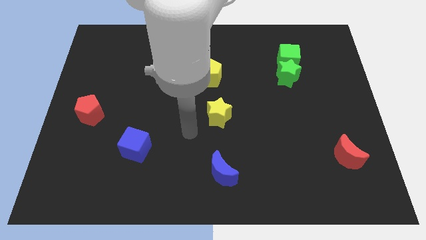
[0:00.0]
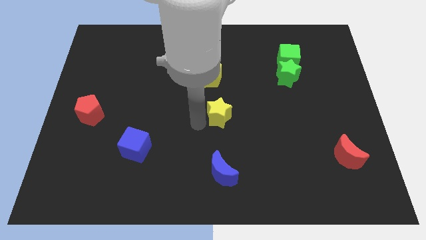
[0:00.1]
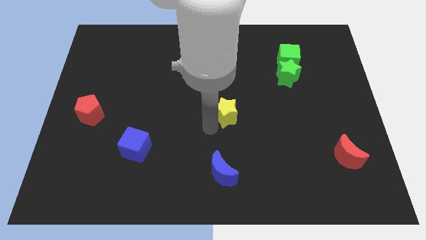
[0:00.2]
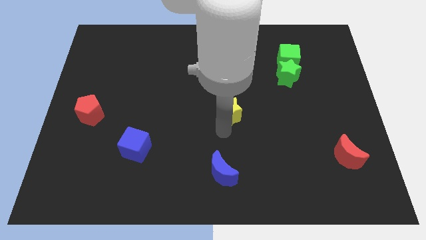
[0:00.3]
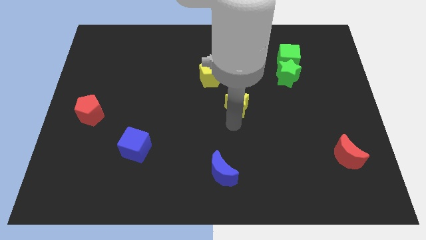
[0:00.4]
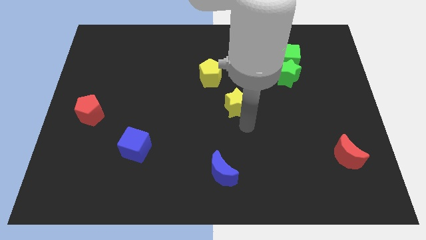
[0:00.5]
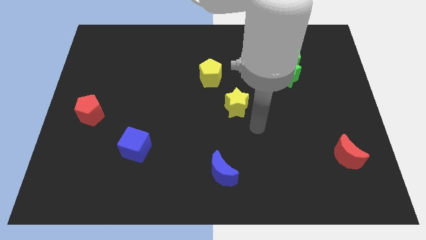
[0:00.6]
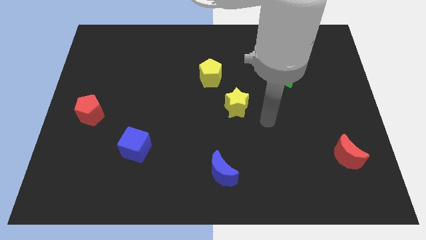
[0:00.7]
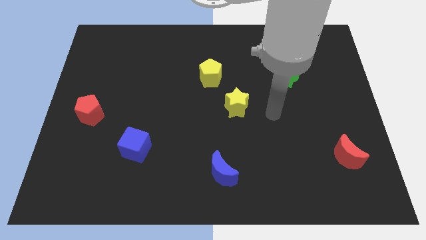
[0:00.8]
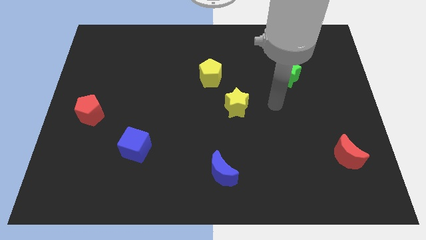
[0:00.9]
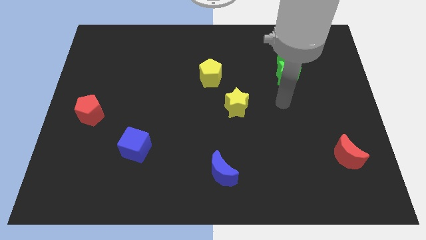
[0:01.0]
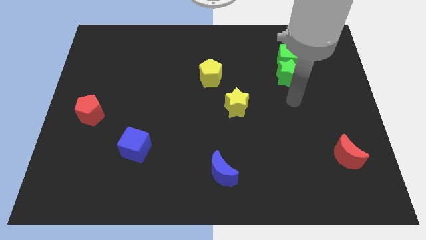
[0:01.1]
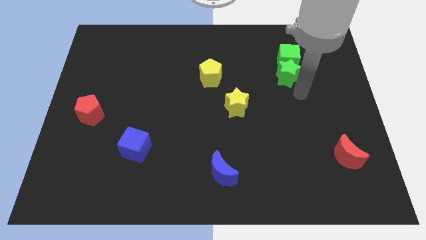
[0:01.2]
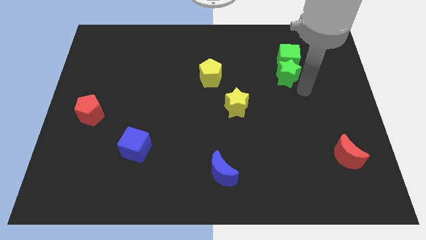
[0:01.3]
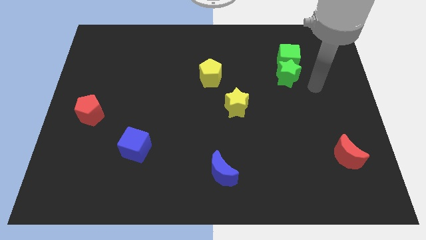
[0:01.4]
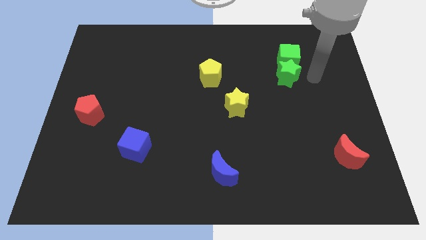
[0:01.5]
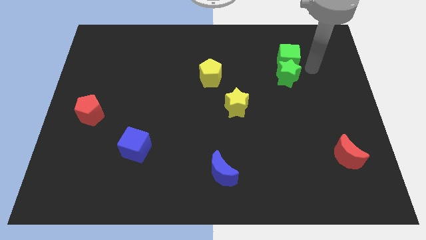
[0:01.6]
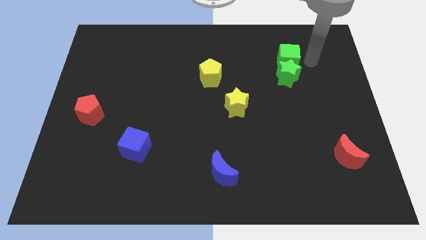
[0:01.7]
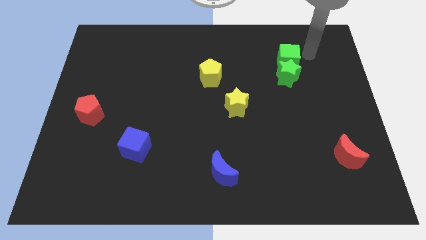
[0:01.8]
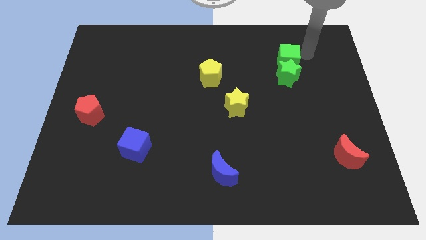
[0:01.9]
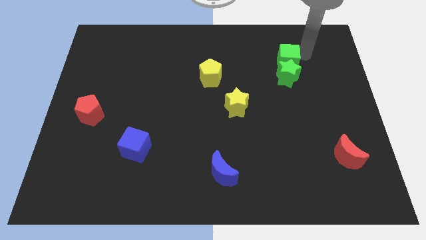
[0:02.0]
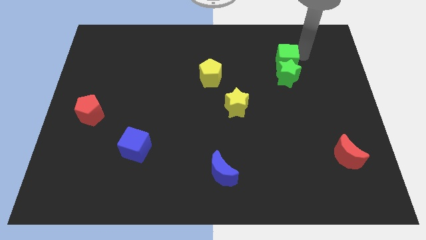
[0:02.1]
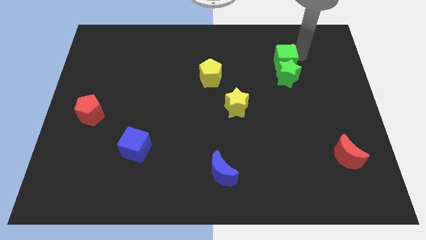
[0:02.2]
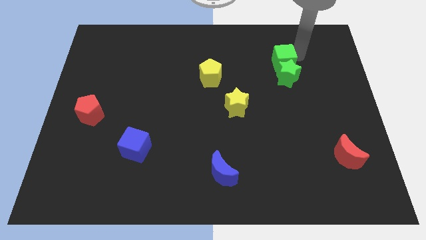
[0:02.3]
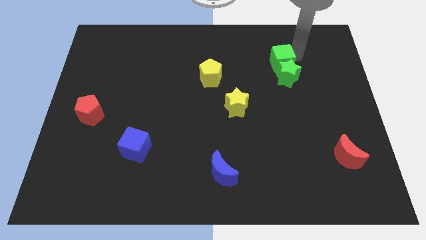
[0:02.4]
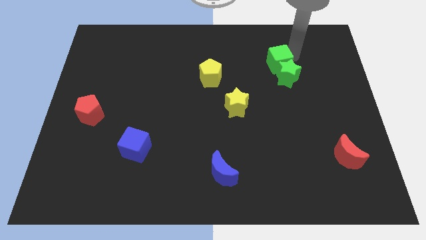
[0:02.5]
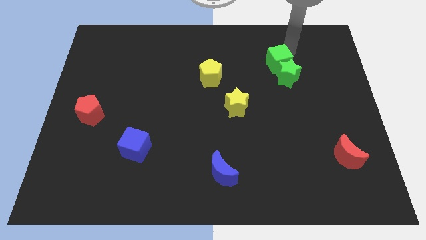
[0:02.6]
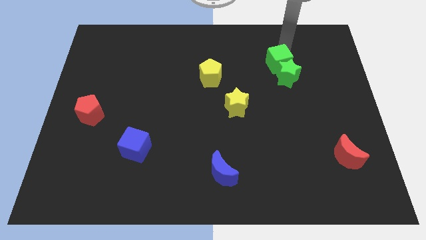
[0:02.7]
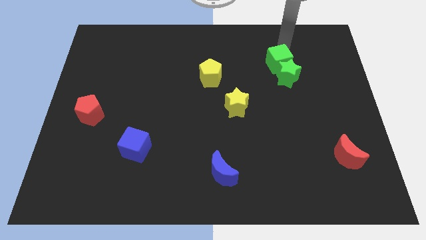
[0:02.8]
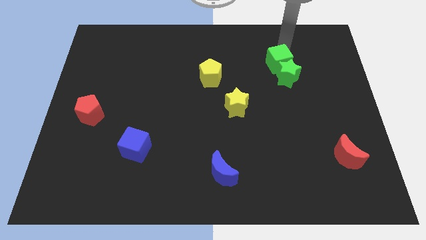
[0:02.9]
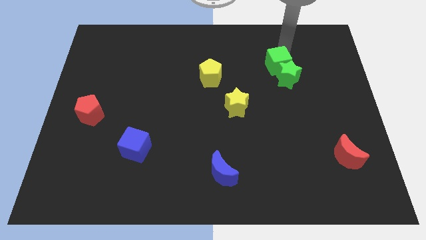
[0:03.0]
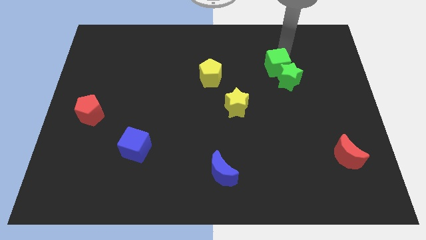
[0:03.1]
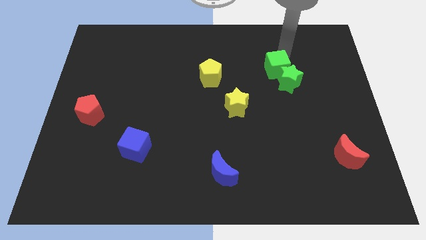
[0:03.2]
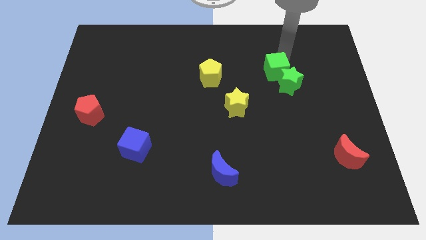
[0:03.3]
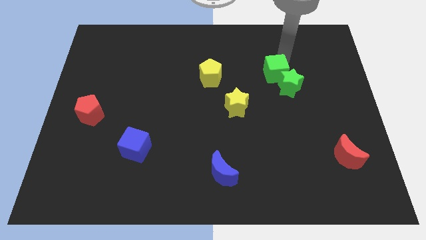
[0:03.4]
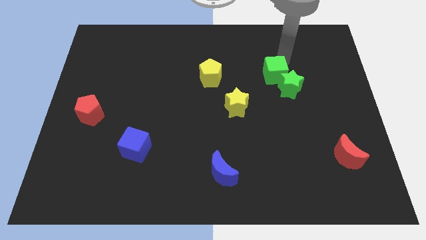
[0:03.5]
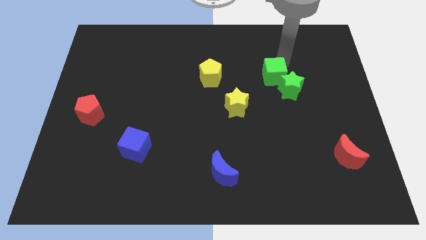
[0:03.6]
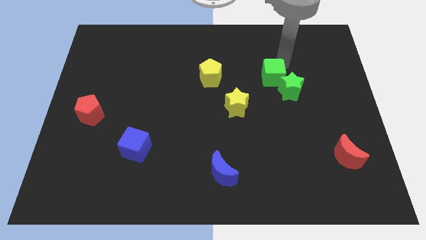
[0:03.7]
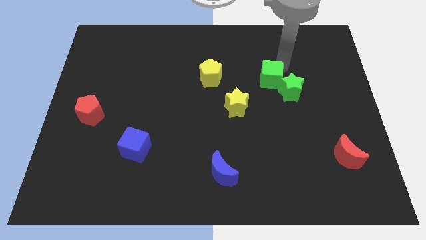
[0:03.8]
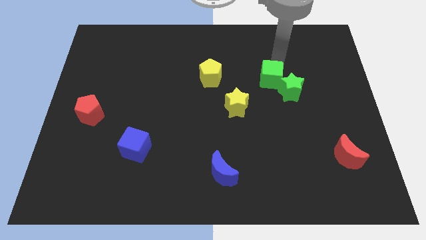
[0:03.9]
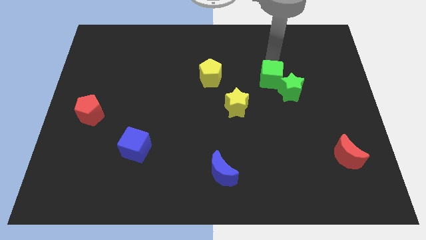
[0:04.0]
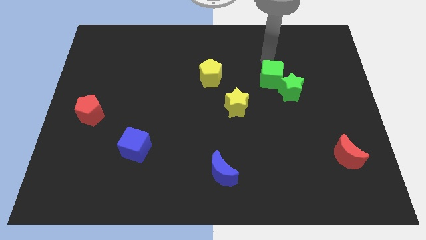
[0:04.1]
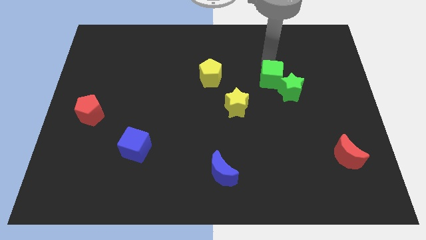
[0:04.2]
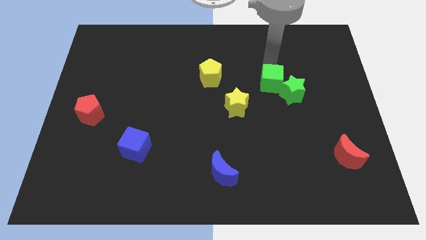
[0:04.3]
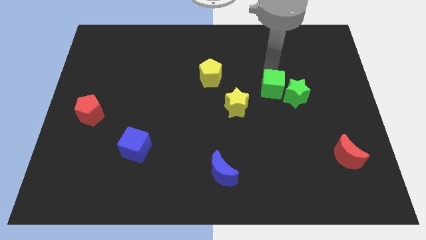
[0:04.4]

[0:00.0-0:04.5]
slightly push the green cube down

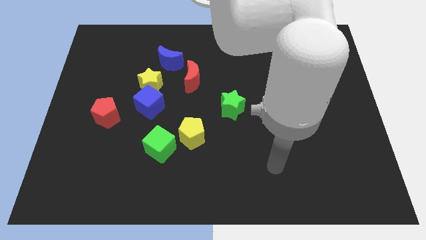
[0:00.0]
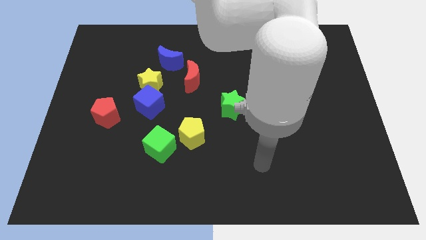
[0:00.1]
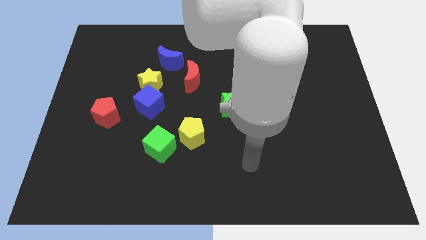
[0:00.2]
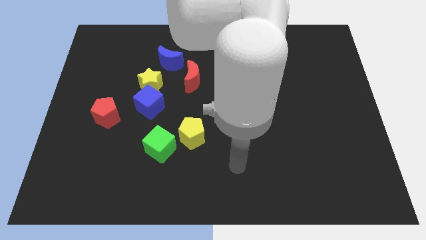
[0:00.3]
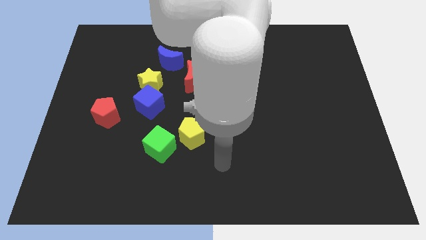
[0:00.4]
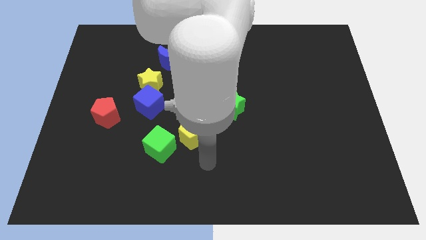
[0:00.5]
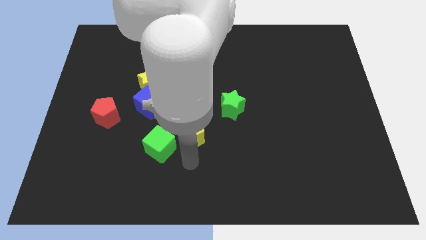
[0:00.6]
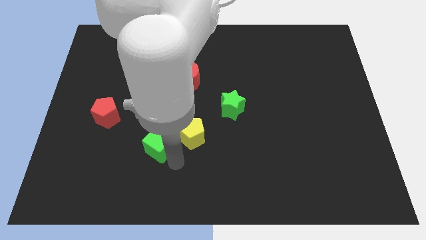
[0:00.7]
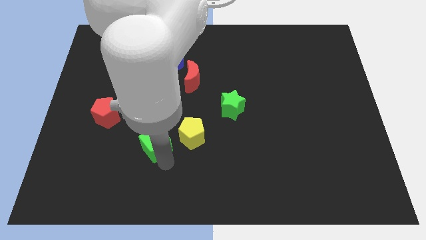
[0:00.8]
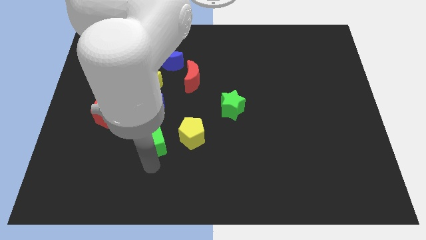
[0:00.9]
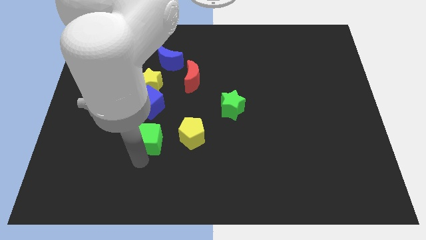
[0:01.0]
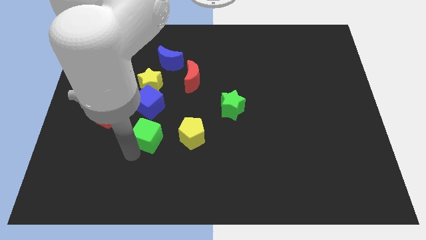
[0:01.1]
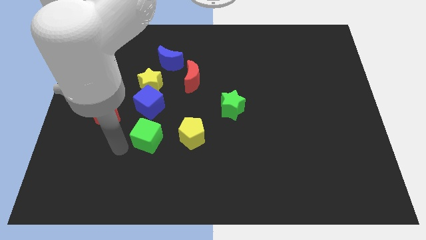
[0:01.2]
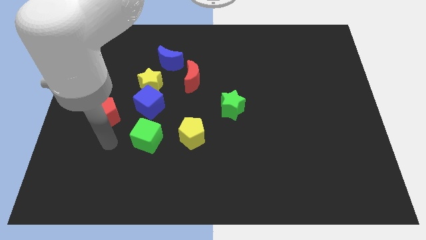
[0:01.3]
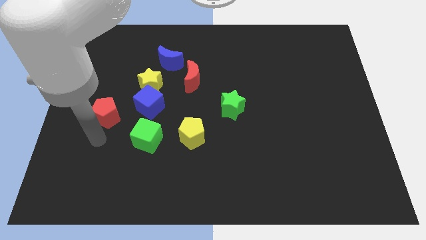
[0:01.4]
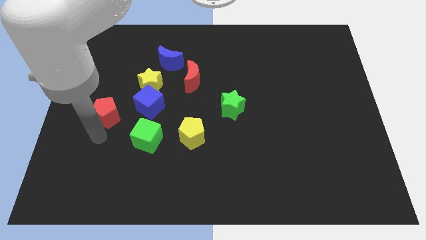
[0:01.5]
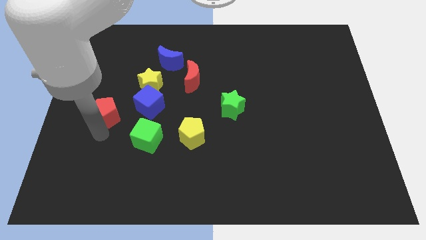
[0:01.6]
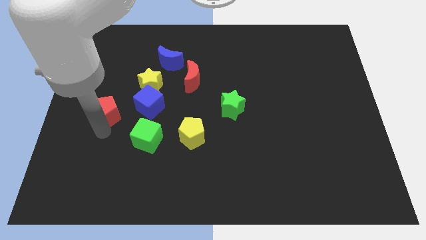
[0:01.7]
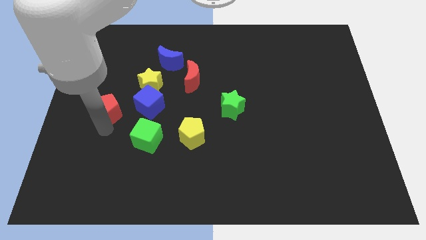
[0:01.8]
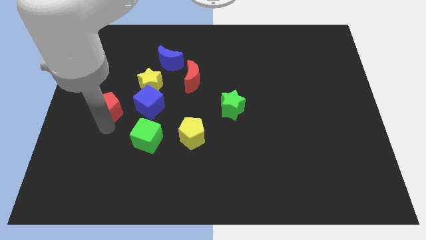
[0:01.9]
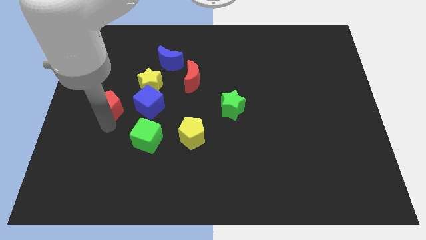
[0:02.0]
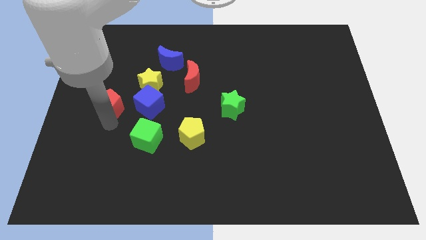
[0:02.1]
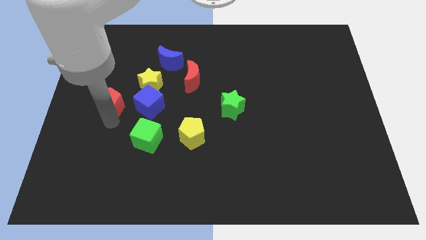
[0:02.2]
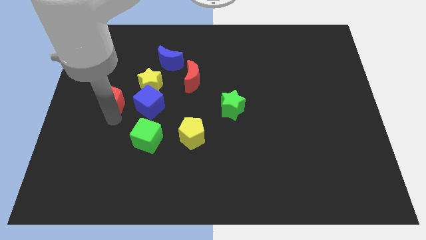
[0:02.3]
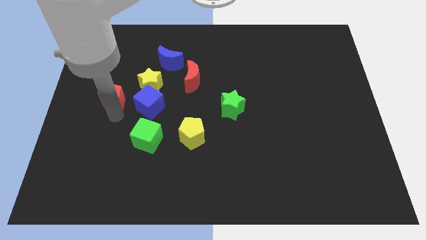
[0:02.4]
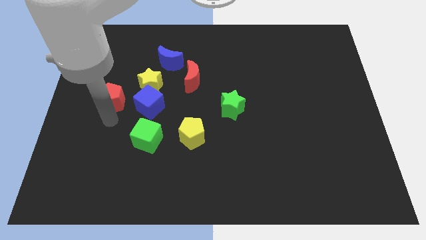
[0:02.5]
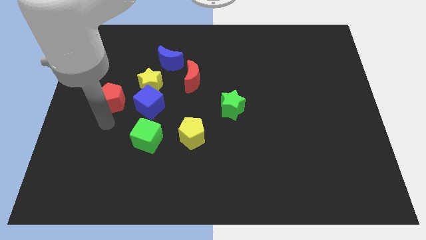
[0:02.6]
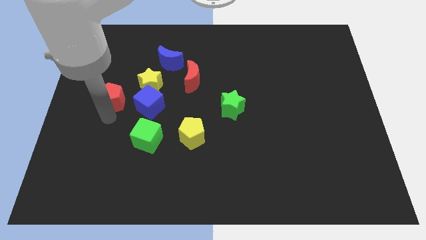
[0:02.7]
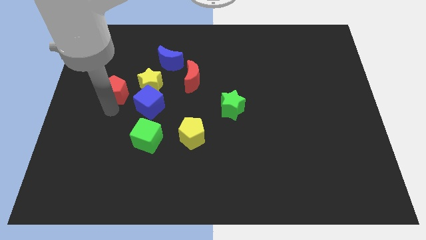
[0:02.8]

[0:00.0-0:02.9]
push the red pentagon up somewhat

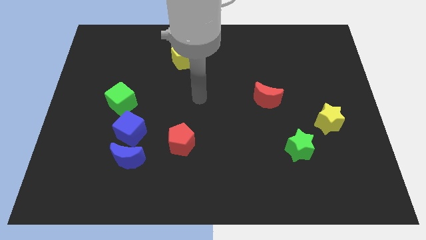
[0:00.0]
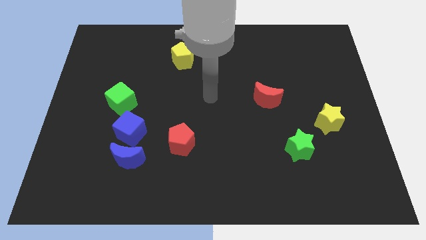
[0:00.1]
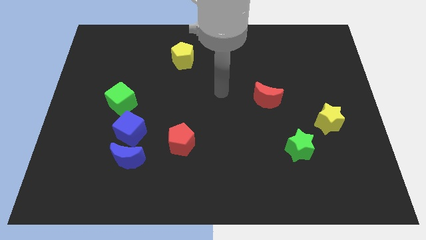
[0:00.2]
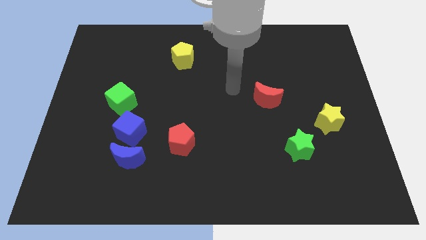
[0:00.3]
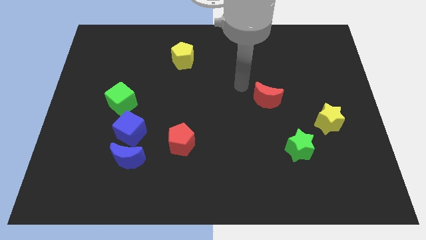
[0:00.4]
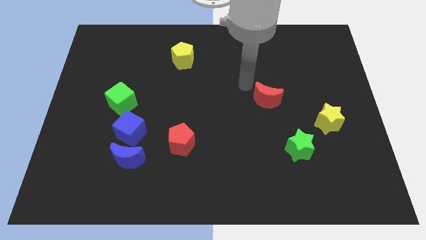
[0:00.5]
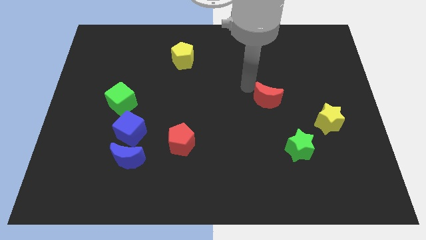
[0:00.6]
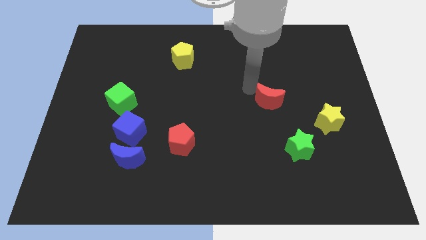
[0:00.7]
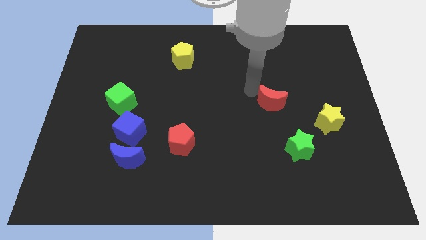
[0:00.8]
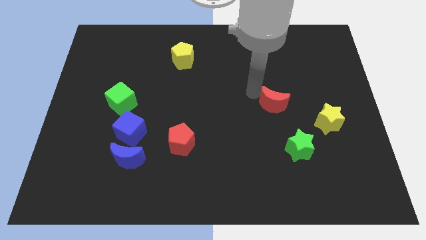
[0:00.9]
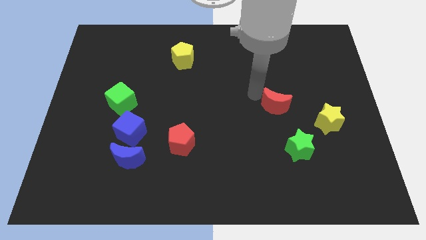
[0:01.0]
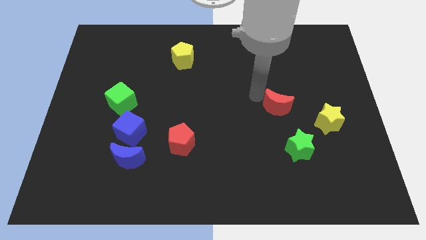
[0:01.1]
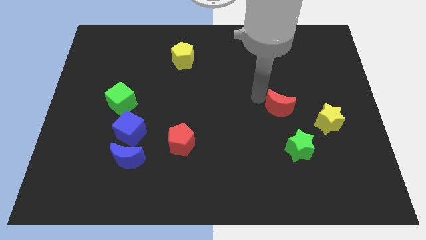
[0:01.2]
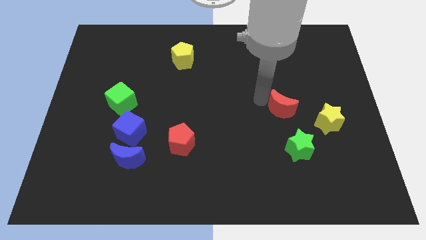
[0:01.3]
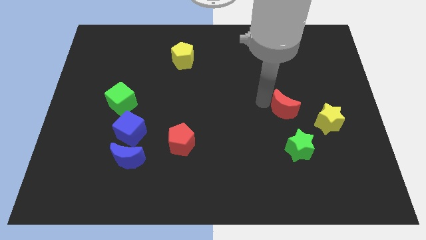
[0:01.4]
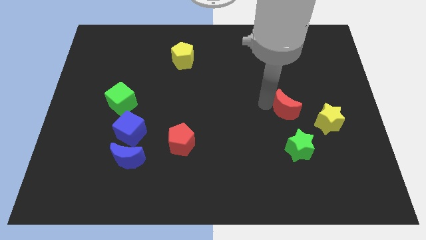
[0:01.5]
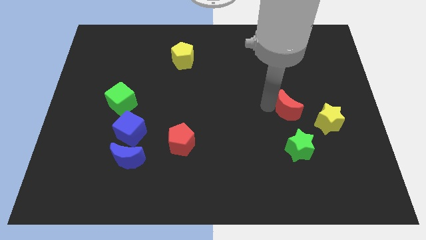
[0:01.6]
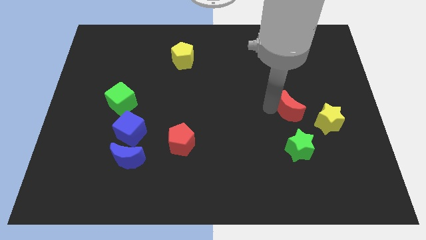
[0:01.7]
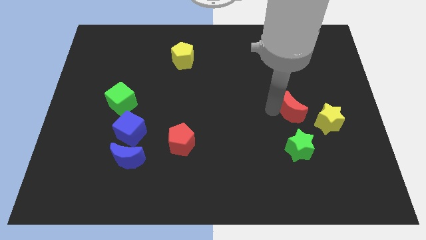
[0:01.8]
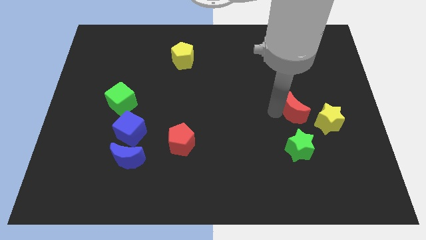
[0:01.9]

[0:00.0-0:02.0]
slide the red moon a little bit downwards and right
